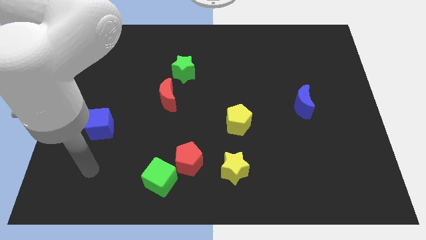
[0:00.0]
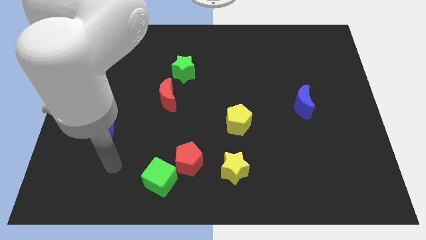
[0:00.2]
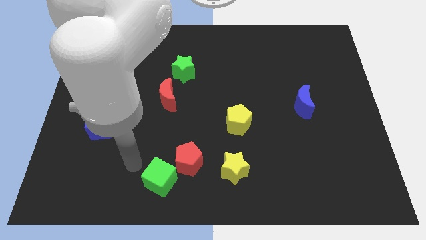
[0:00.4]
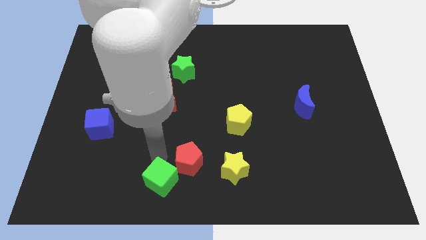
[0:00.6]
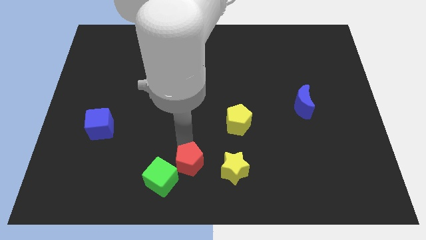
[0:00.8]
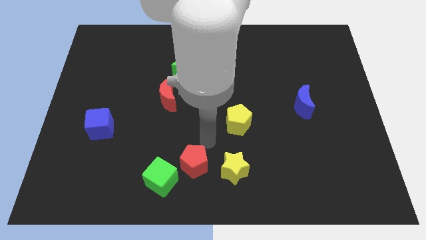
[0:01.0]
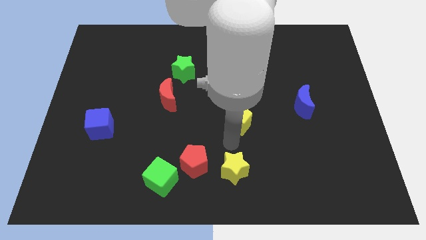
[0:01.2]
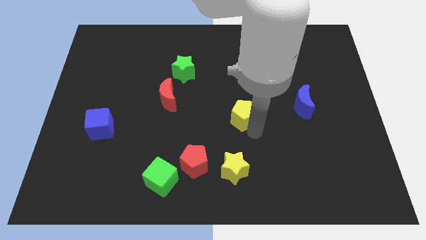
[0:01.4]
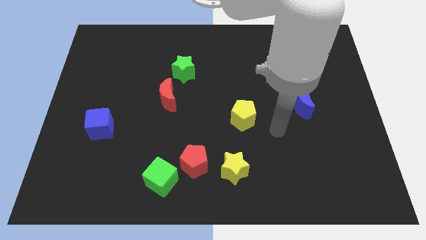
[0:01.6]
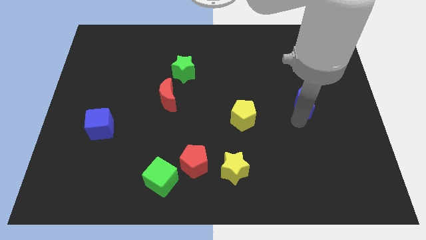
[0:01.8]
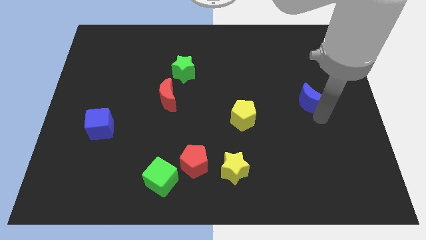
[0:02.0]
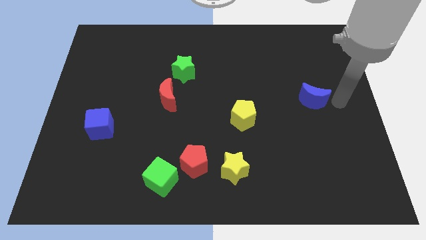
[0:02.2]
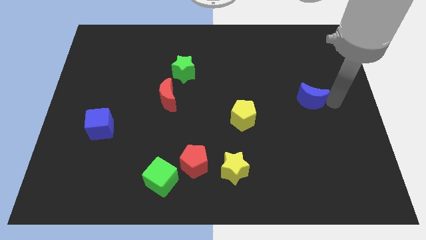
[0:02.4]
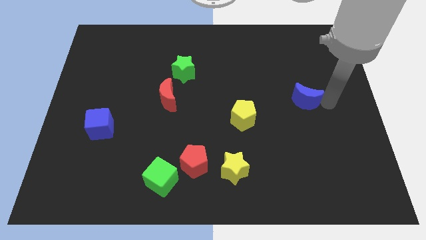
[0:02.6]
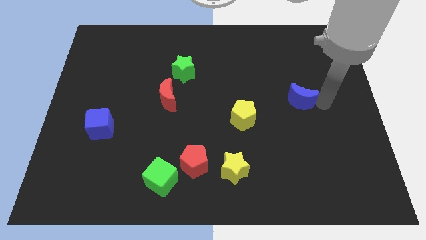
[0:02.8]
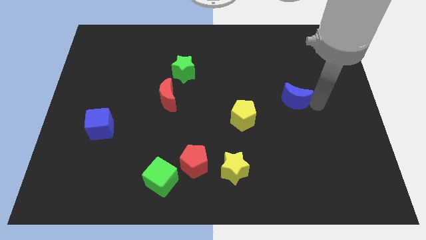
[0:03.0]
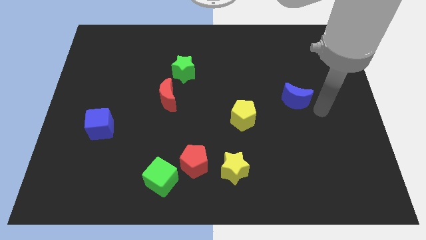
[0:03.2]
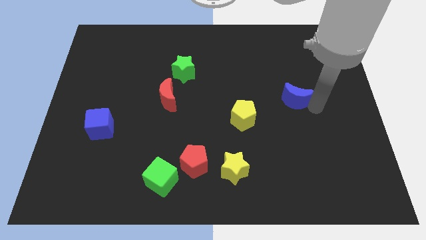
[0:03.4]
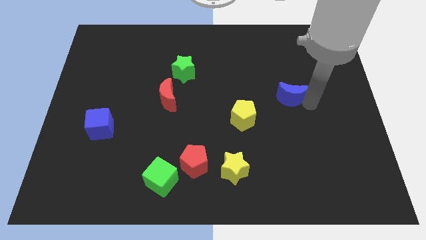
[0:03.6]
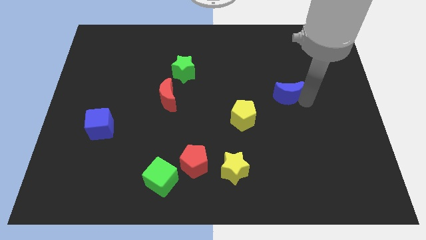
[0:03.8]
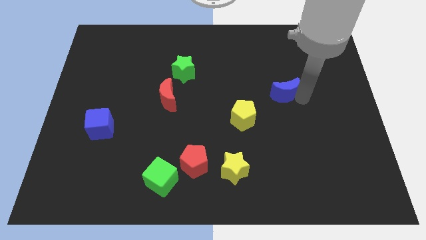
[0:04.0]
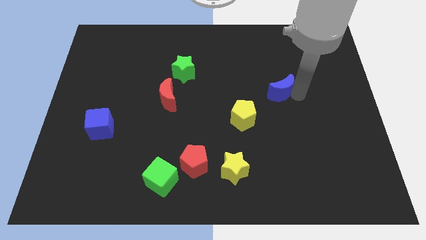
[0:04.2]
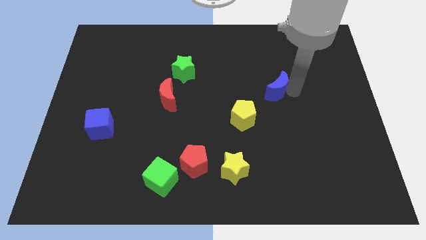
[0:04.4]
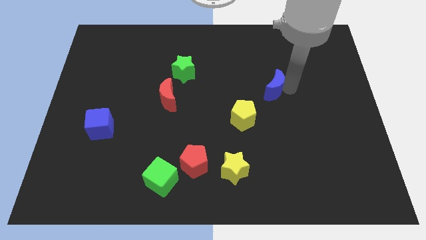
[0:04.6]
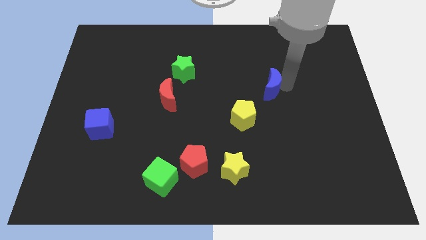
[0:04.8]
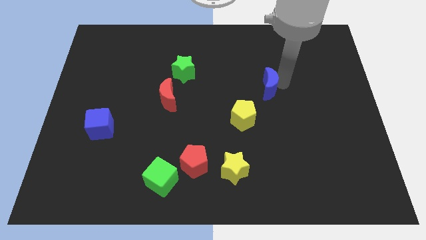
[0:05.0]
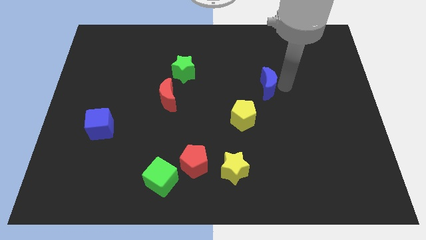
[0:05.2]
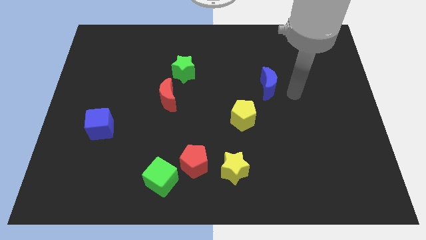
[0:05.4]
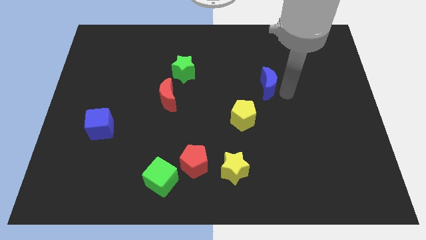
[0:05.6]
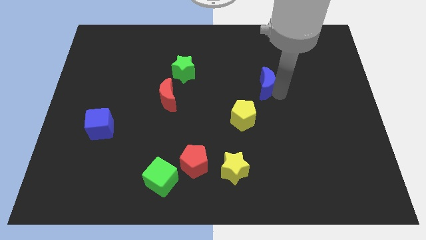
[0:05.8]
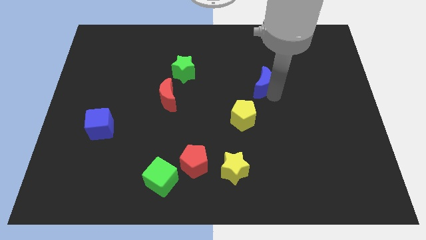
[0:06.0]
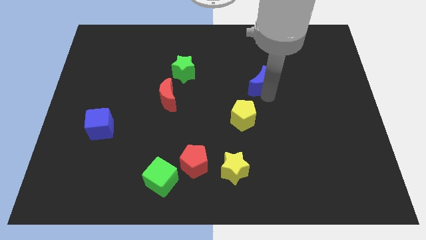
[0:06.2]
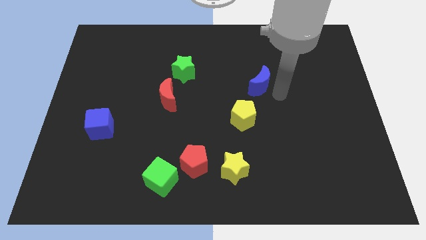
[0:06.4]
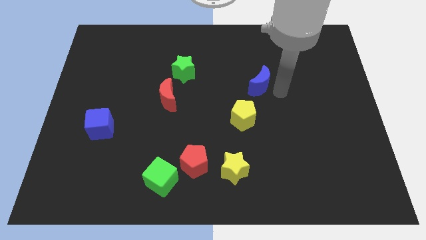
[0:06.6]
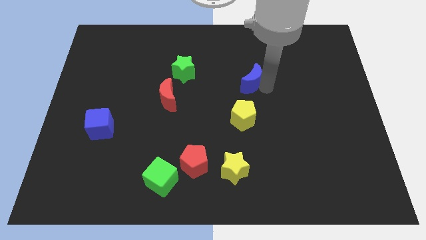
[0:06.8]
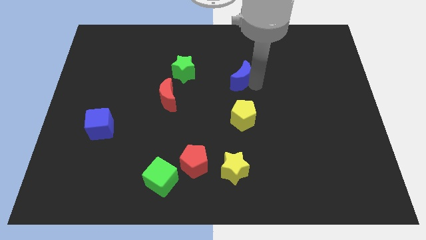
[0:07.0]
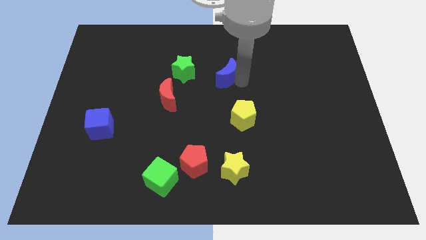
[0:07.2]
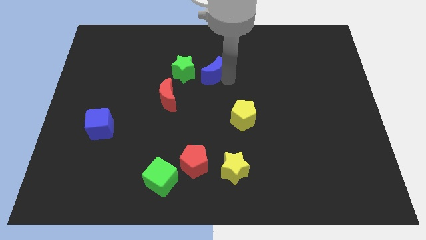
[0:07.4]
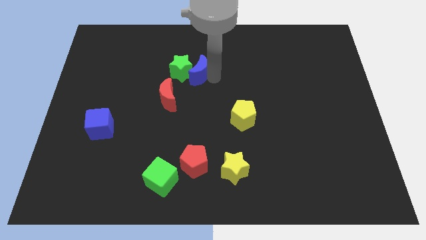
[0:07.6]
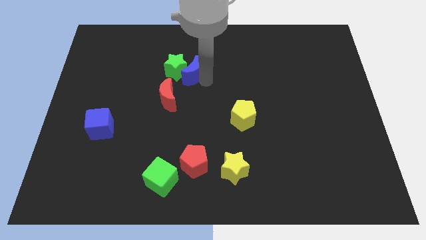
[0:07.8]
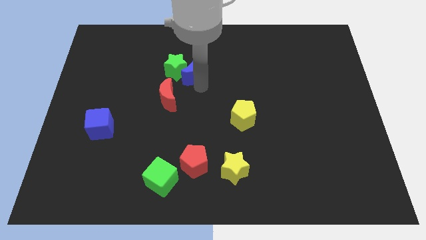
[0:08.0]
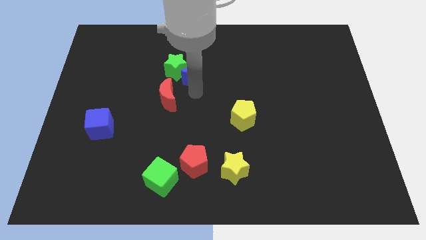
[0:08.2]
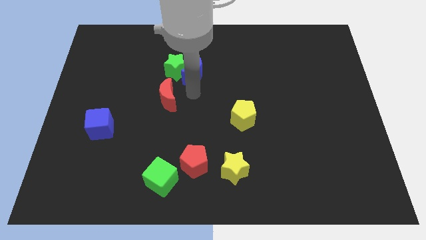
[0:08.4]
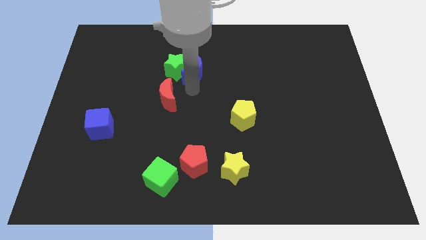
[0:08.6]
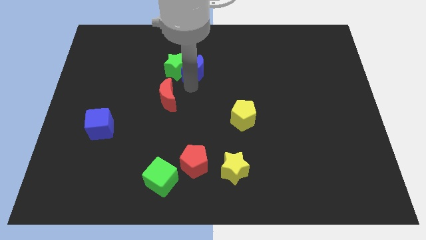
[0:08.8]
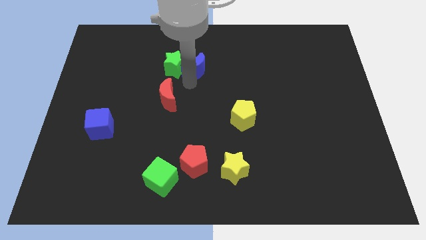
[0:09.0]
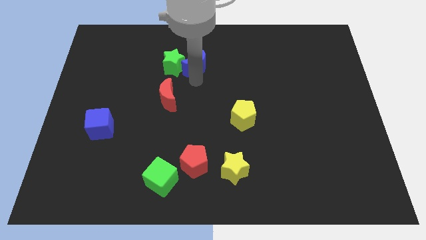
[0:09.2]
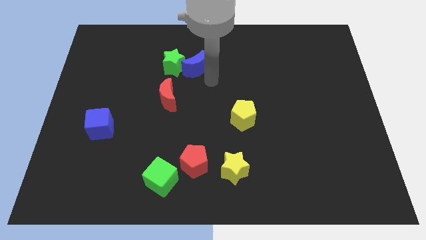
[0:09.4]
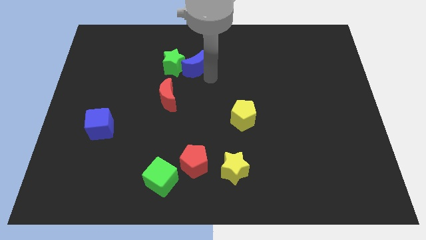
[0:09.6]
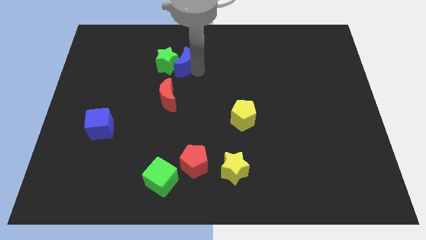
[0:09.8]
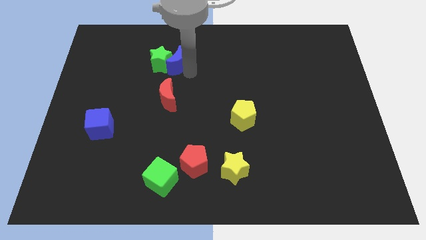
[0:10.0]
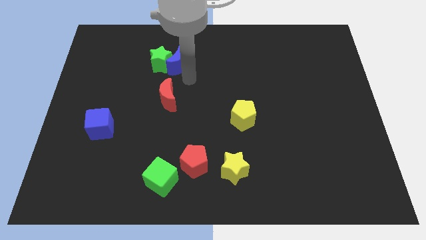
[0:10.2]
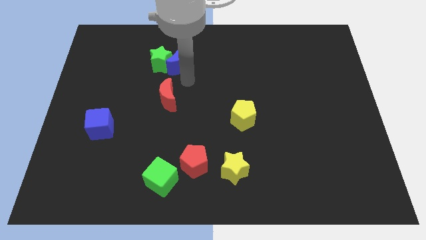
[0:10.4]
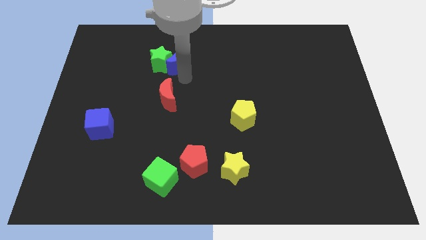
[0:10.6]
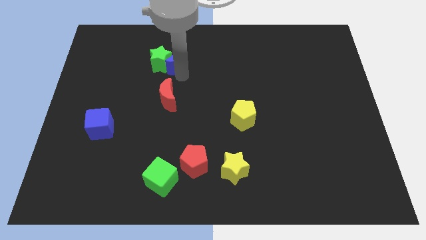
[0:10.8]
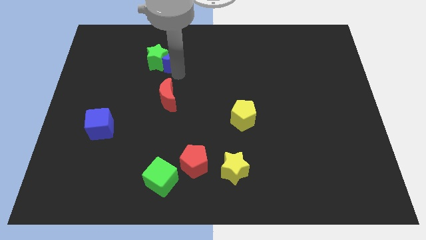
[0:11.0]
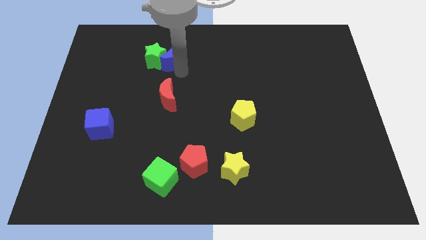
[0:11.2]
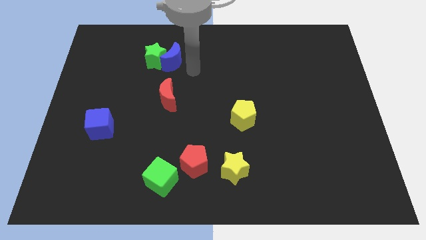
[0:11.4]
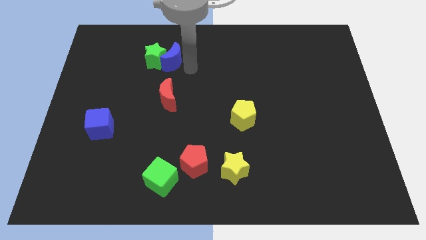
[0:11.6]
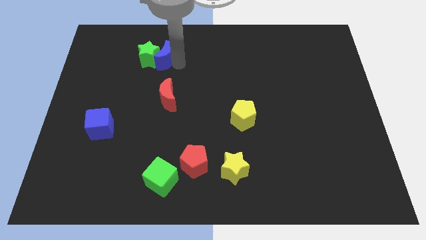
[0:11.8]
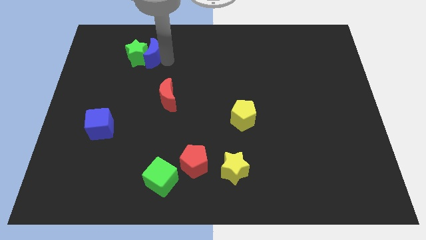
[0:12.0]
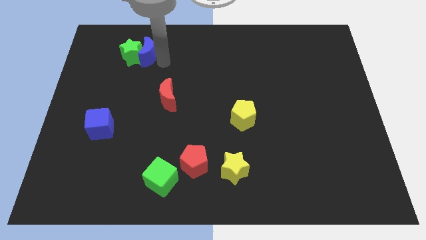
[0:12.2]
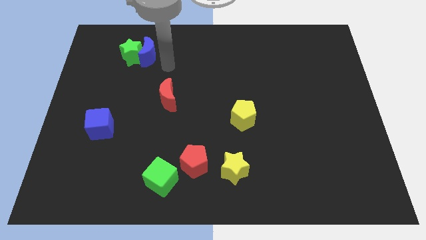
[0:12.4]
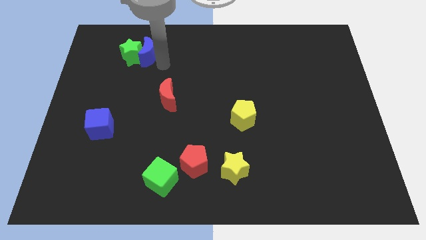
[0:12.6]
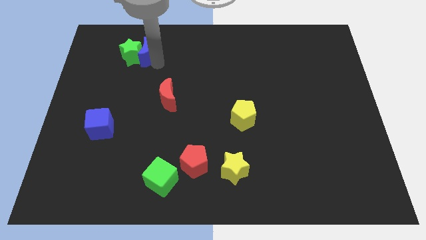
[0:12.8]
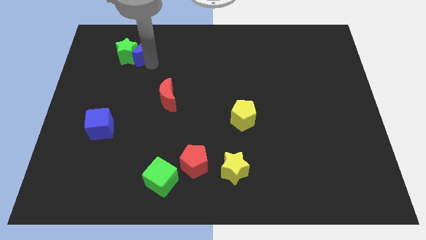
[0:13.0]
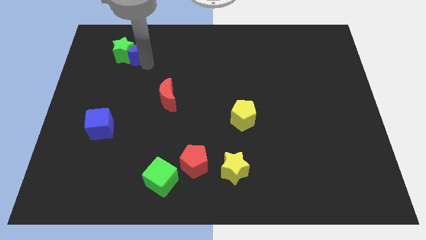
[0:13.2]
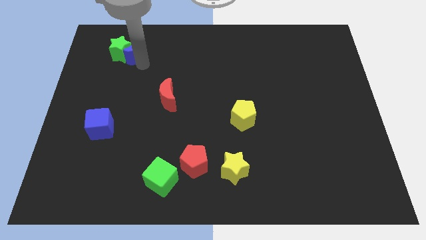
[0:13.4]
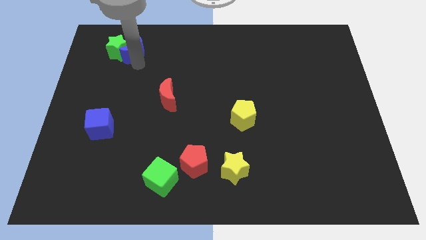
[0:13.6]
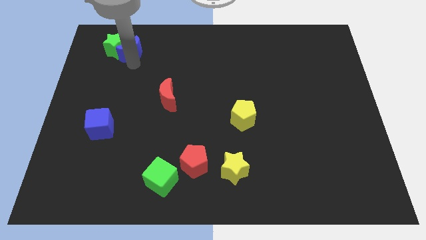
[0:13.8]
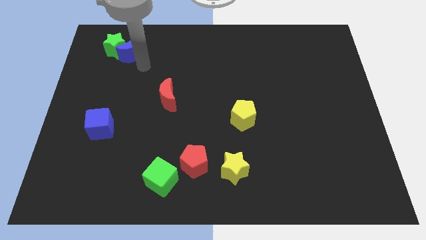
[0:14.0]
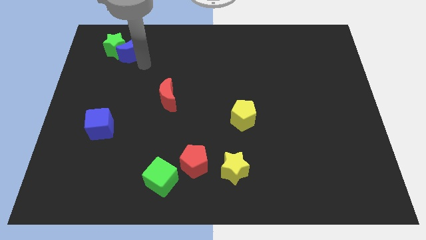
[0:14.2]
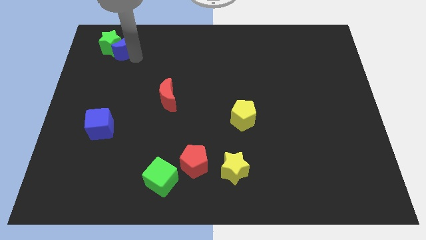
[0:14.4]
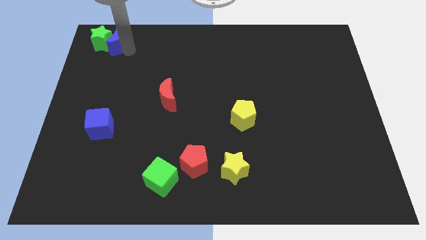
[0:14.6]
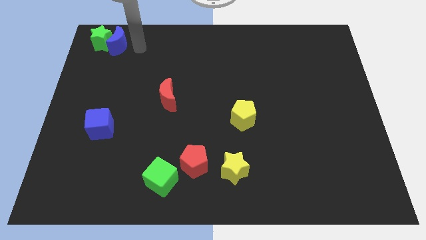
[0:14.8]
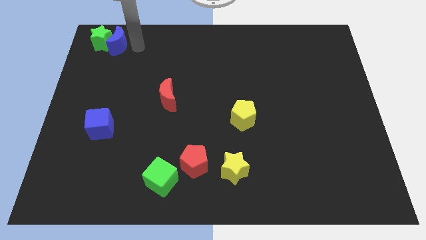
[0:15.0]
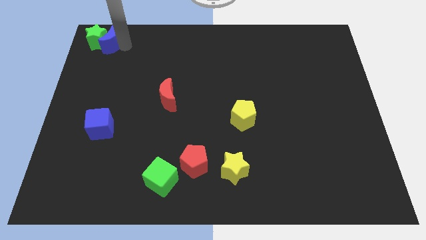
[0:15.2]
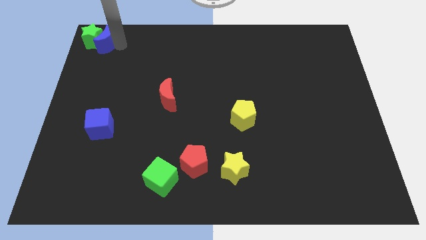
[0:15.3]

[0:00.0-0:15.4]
put the blue moon to the upper left corner
